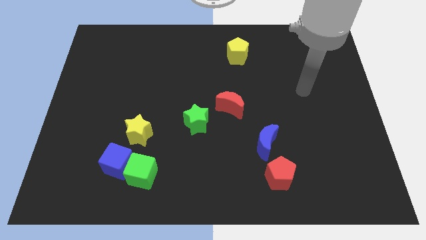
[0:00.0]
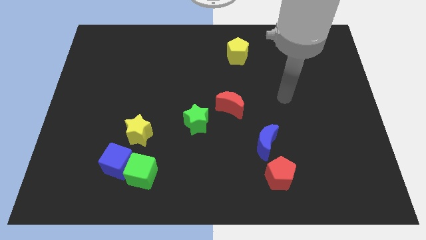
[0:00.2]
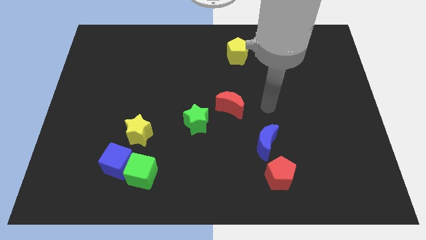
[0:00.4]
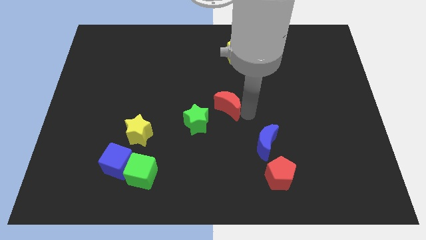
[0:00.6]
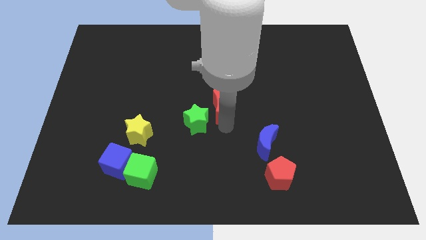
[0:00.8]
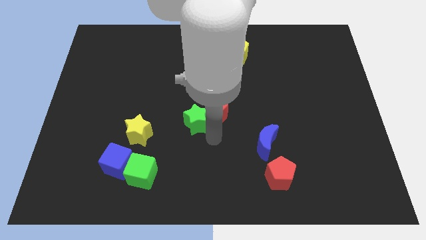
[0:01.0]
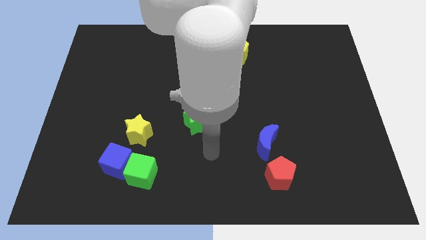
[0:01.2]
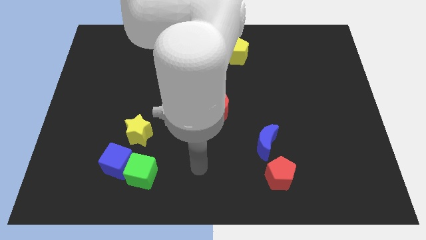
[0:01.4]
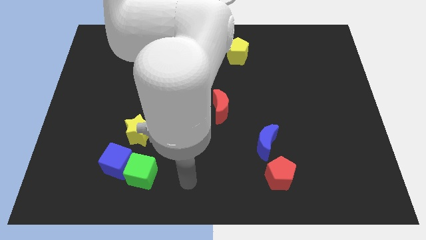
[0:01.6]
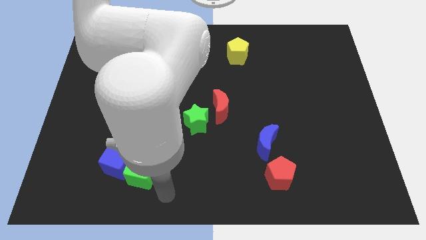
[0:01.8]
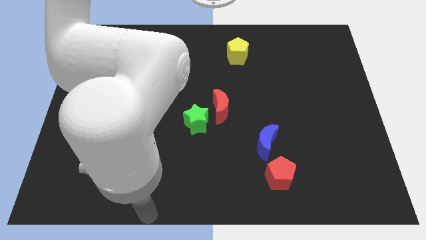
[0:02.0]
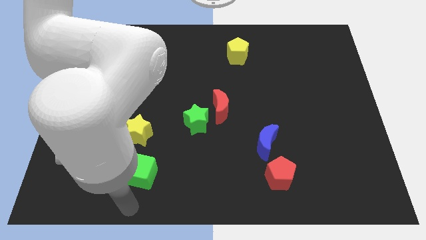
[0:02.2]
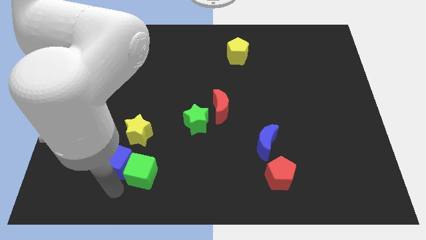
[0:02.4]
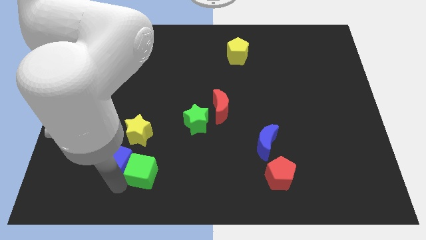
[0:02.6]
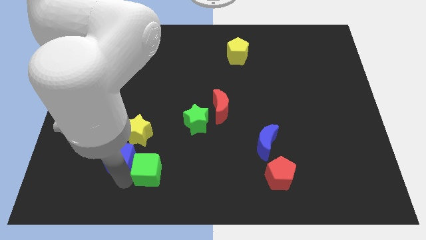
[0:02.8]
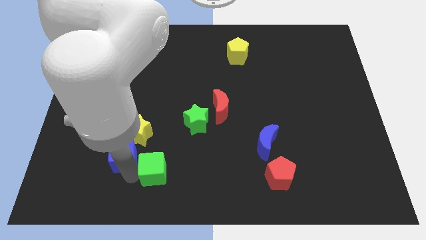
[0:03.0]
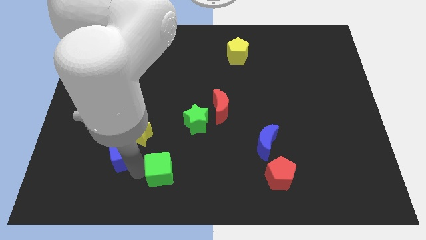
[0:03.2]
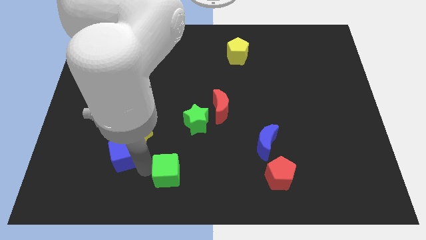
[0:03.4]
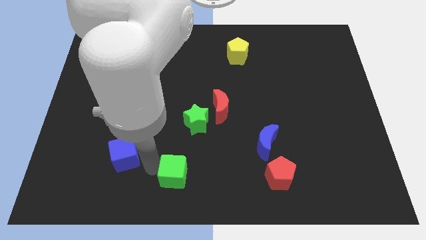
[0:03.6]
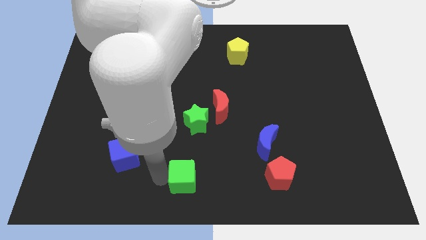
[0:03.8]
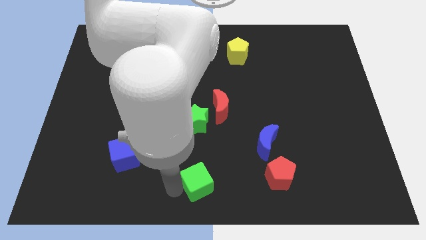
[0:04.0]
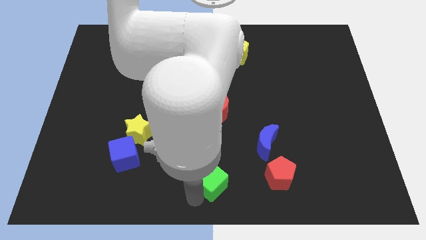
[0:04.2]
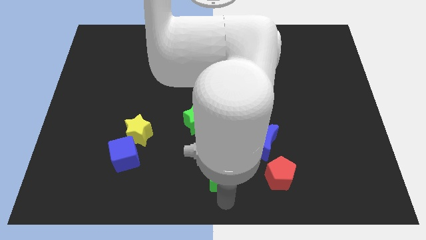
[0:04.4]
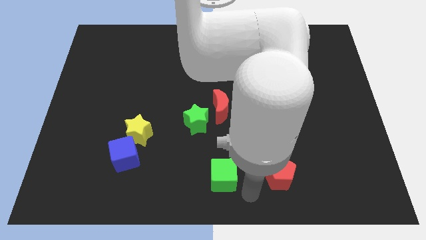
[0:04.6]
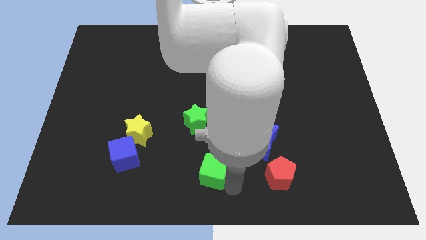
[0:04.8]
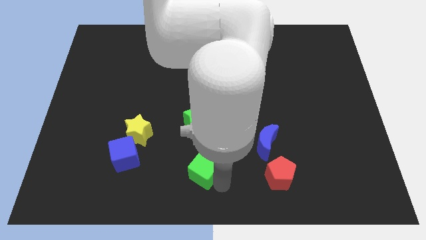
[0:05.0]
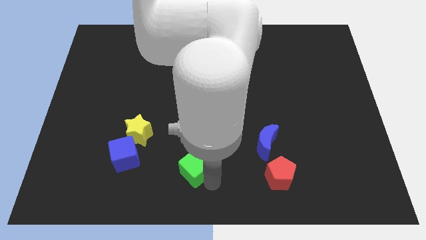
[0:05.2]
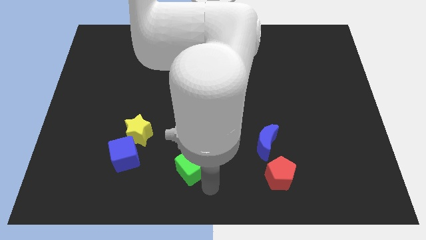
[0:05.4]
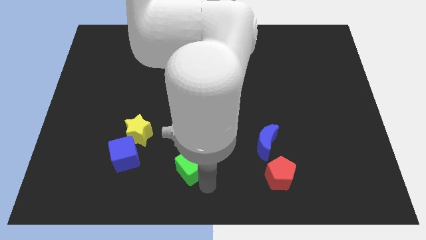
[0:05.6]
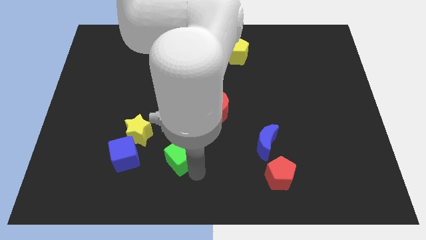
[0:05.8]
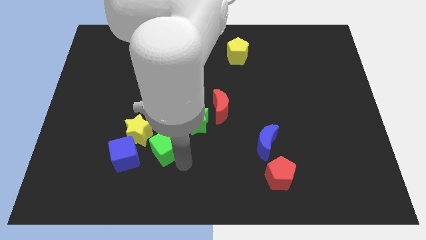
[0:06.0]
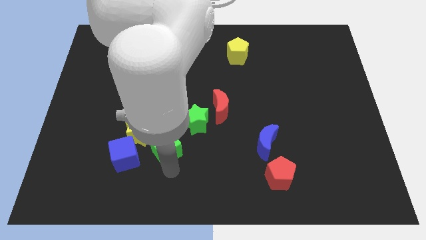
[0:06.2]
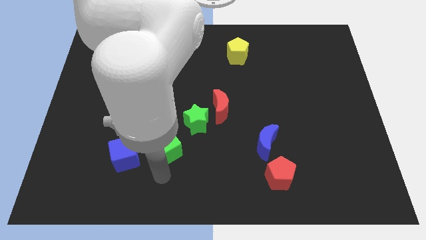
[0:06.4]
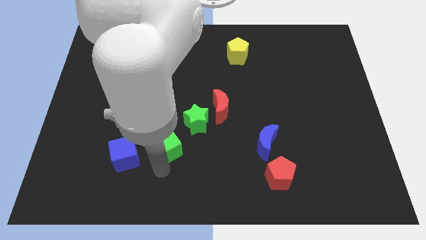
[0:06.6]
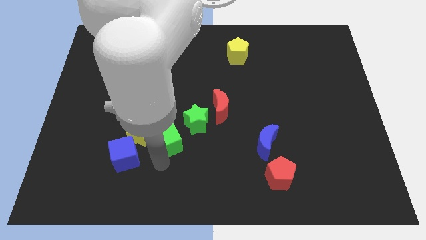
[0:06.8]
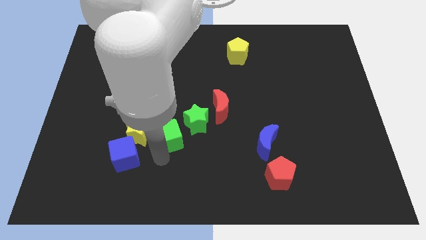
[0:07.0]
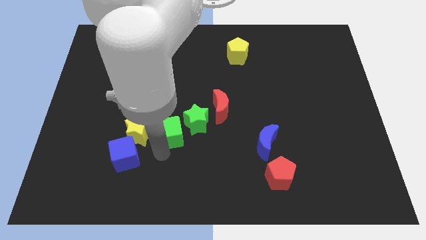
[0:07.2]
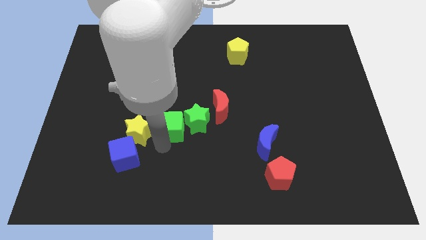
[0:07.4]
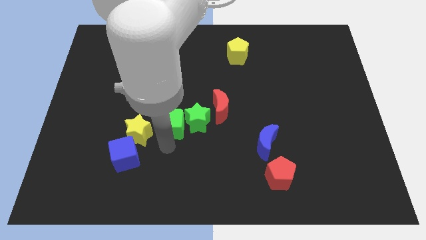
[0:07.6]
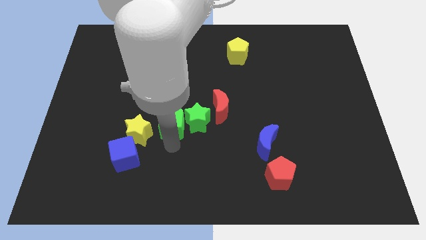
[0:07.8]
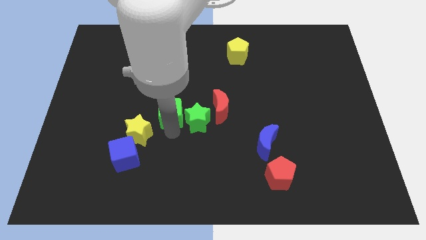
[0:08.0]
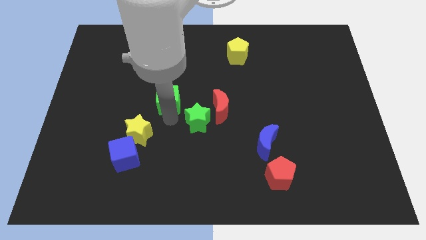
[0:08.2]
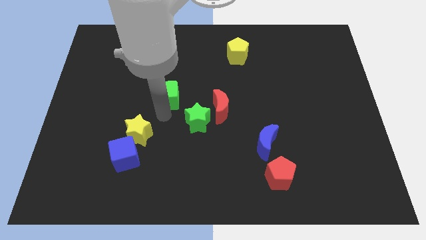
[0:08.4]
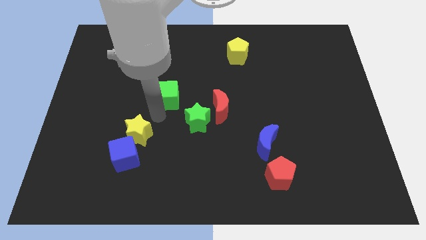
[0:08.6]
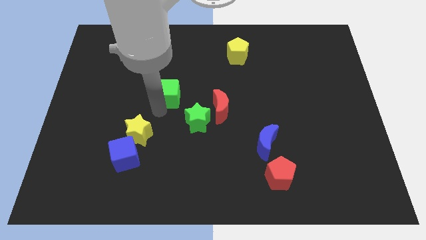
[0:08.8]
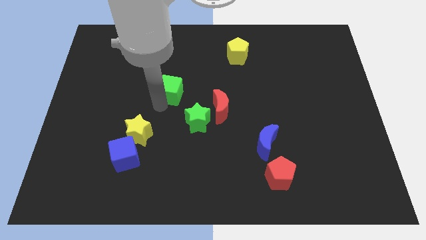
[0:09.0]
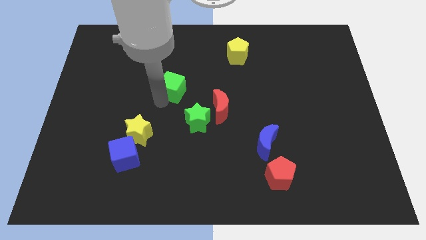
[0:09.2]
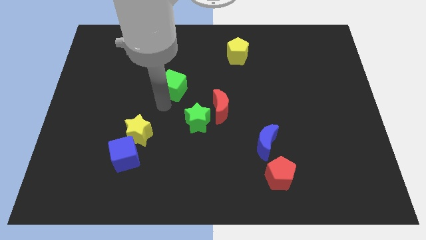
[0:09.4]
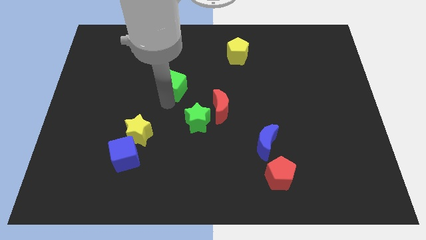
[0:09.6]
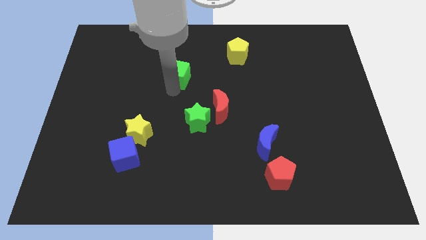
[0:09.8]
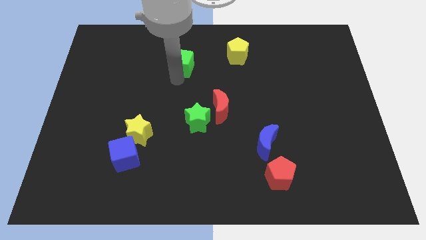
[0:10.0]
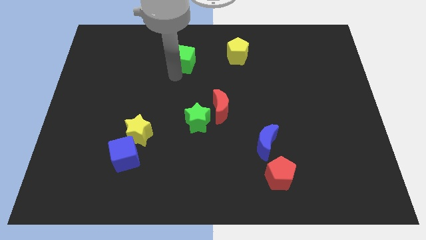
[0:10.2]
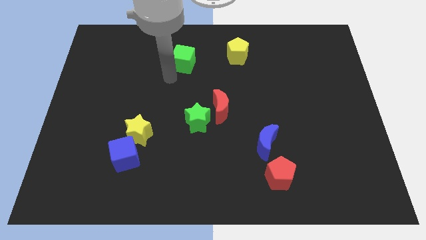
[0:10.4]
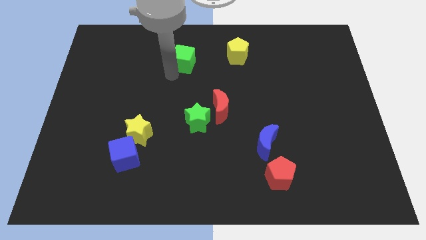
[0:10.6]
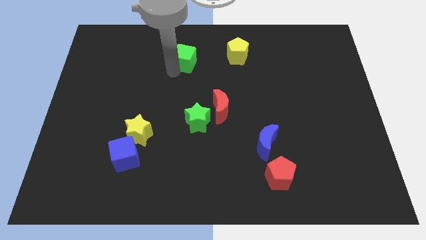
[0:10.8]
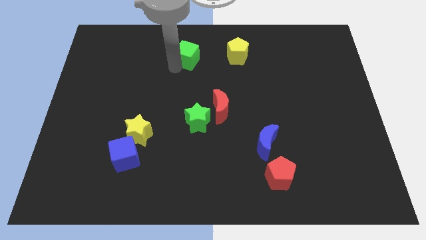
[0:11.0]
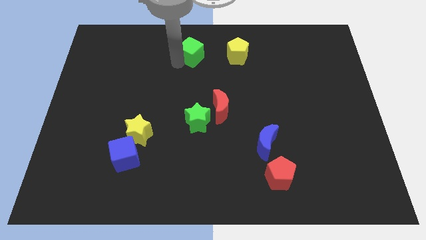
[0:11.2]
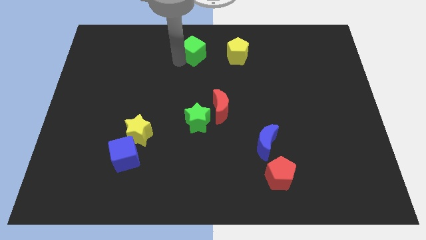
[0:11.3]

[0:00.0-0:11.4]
push the green cube to the top

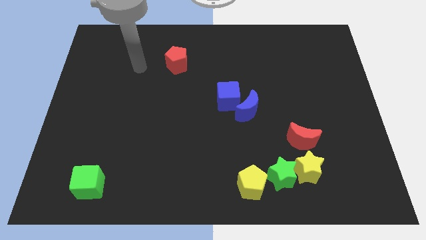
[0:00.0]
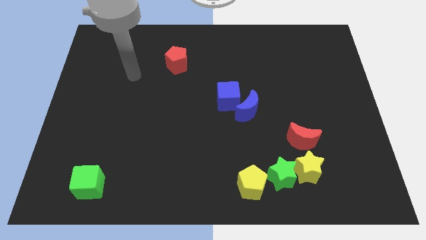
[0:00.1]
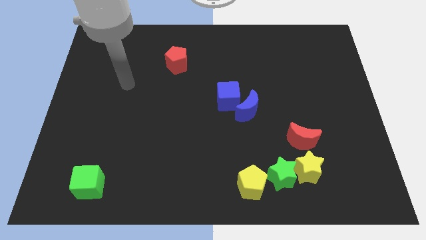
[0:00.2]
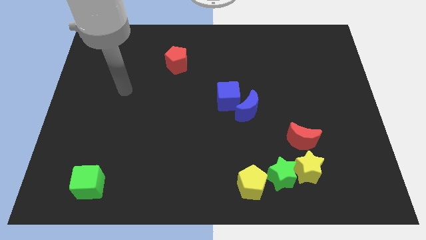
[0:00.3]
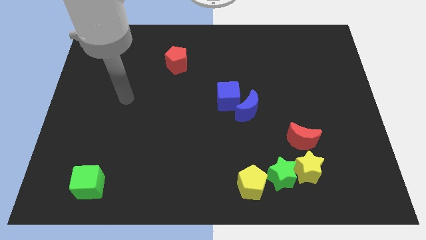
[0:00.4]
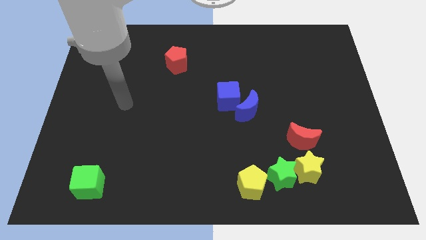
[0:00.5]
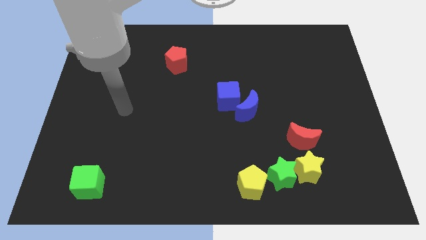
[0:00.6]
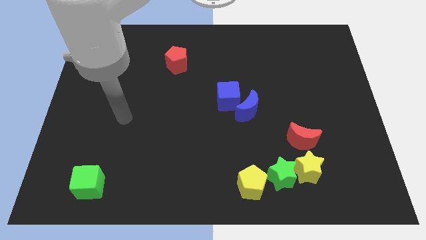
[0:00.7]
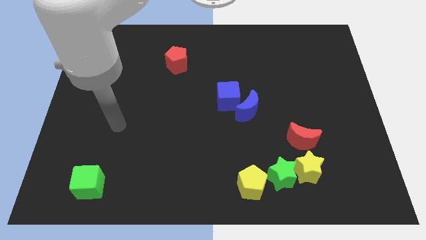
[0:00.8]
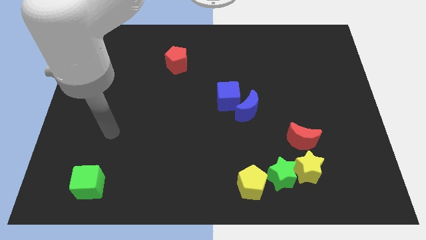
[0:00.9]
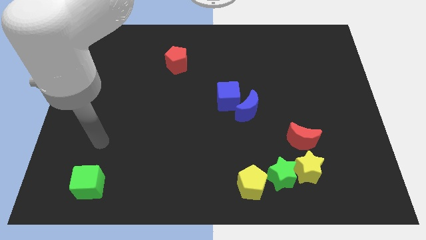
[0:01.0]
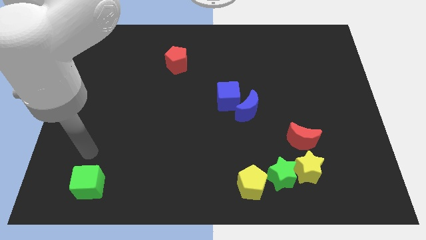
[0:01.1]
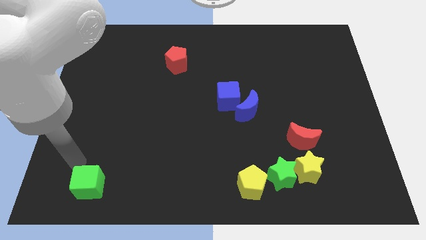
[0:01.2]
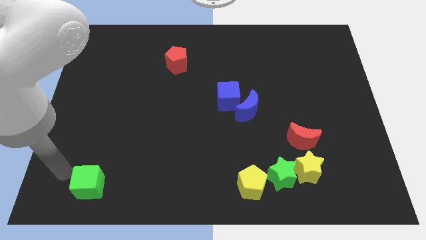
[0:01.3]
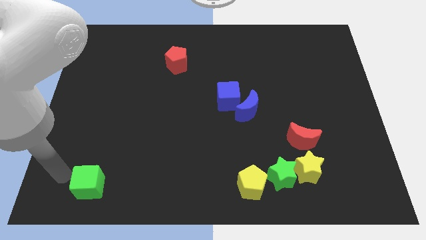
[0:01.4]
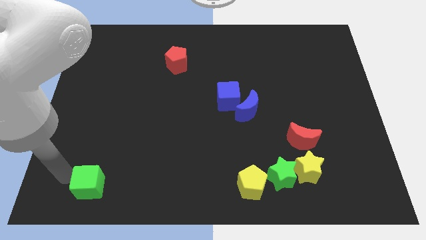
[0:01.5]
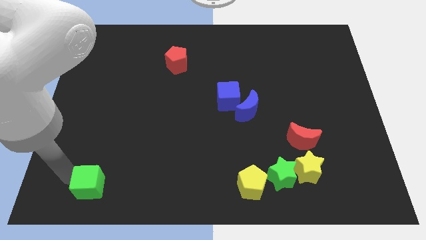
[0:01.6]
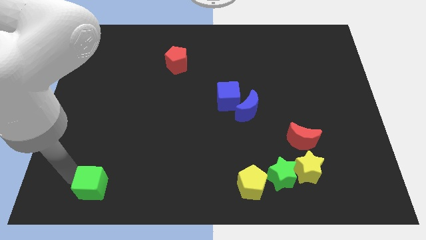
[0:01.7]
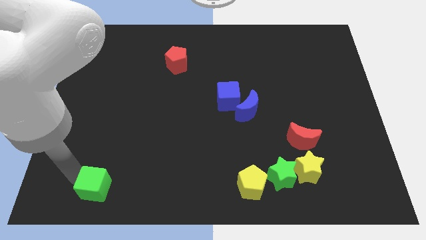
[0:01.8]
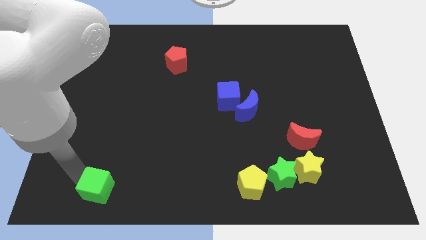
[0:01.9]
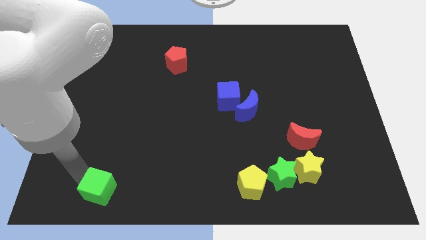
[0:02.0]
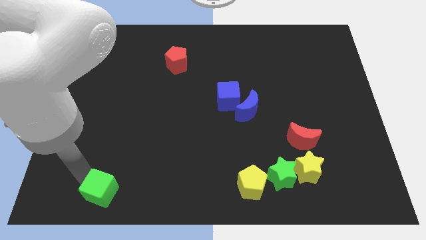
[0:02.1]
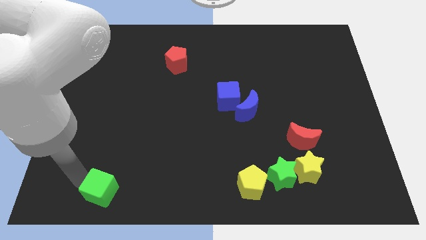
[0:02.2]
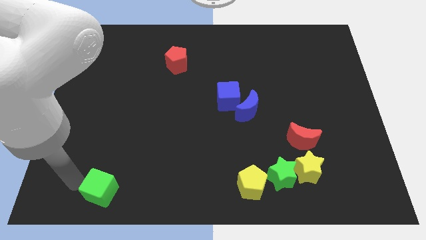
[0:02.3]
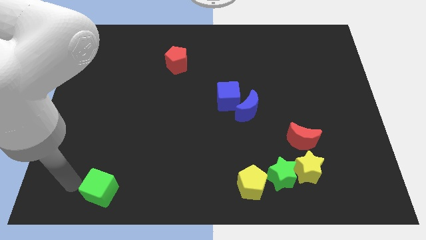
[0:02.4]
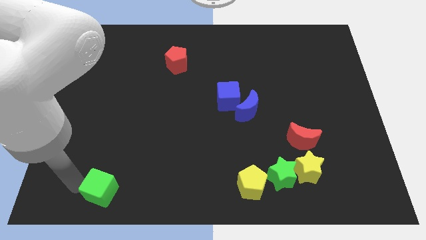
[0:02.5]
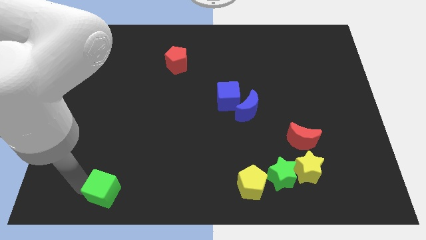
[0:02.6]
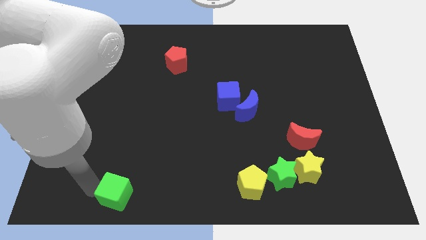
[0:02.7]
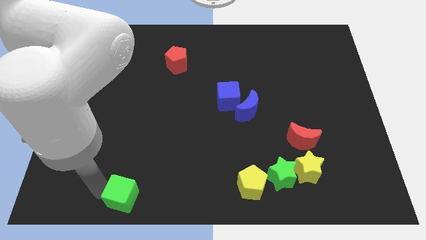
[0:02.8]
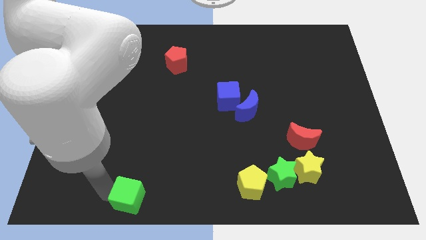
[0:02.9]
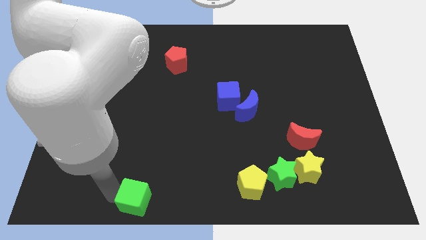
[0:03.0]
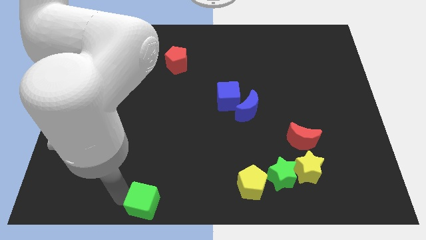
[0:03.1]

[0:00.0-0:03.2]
slide the green cube to the bottom
